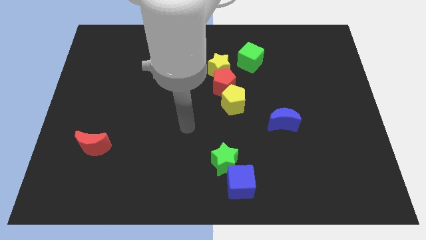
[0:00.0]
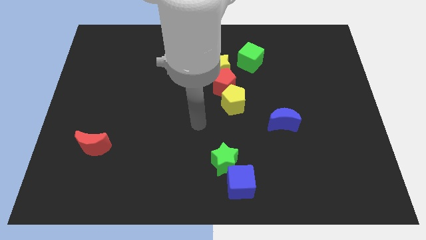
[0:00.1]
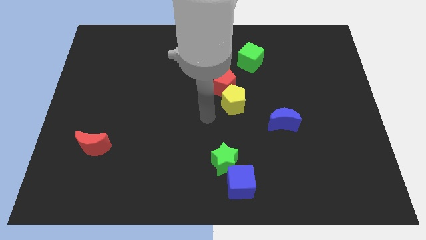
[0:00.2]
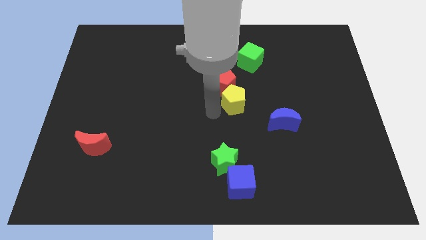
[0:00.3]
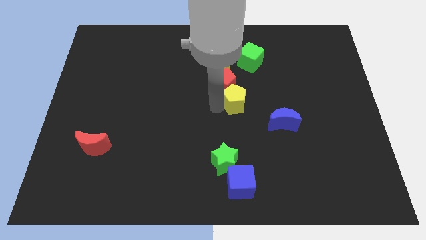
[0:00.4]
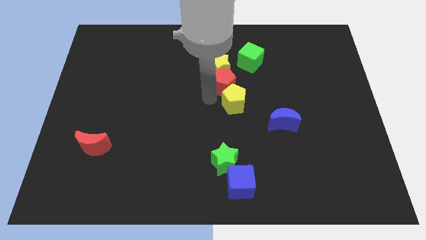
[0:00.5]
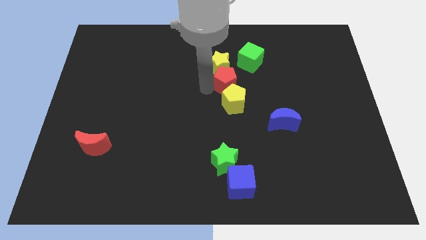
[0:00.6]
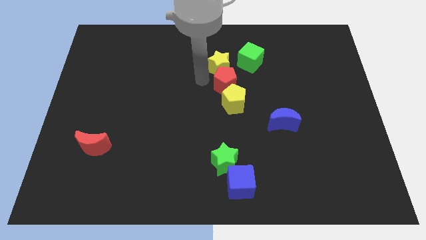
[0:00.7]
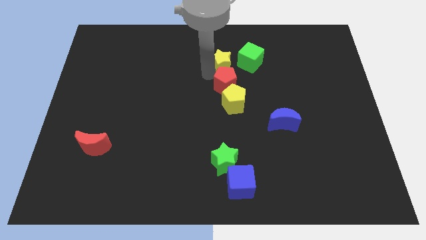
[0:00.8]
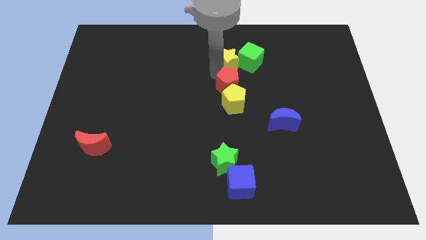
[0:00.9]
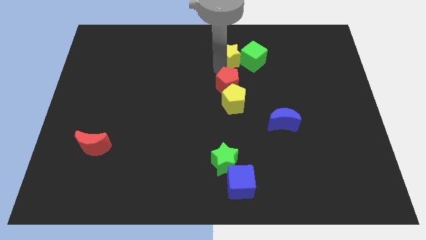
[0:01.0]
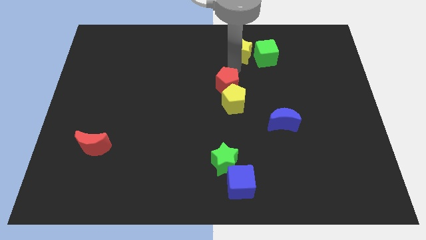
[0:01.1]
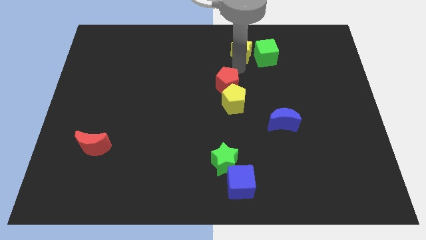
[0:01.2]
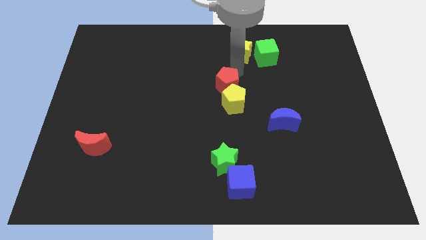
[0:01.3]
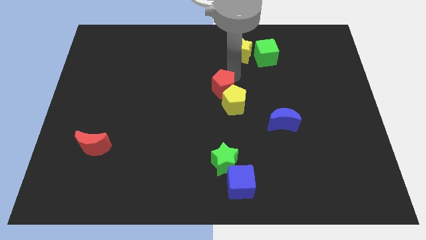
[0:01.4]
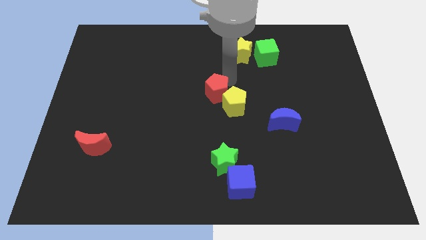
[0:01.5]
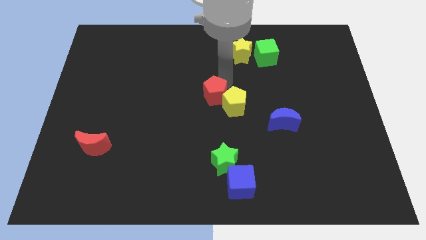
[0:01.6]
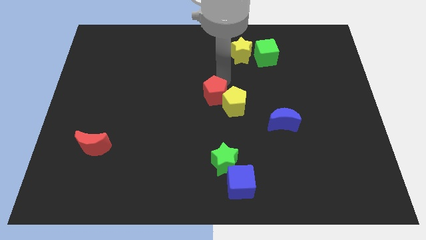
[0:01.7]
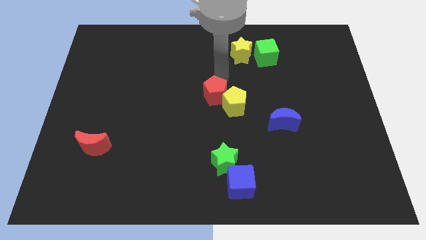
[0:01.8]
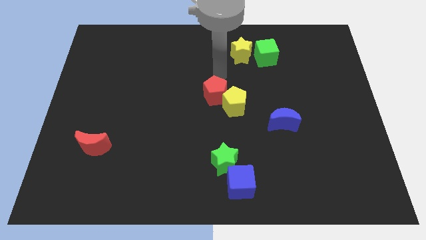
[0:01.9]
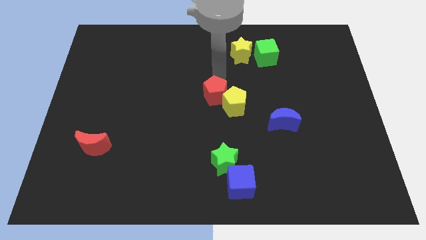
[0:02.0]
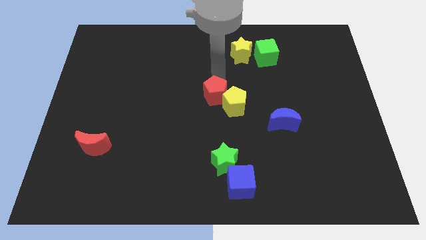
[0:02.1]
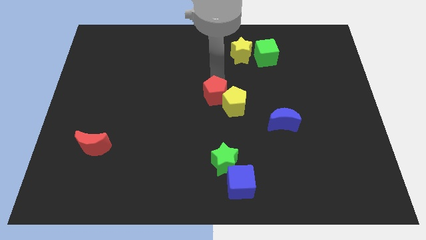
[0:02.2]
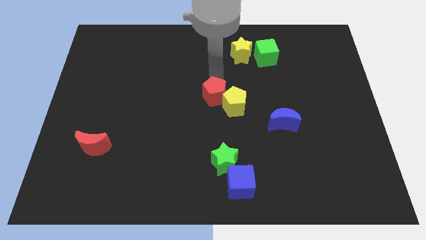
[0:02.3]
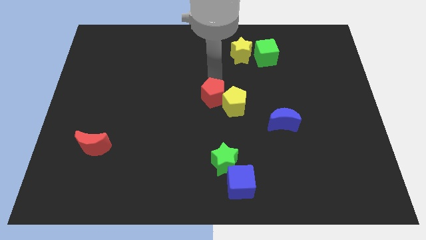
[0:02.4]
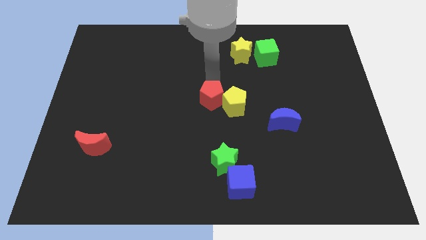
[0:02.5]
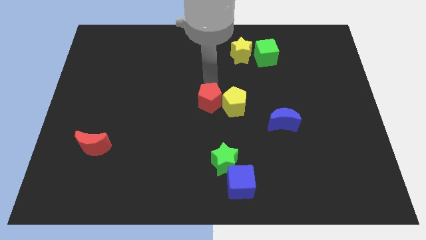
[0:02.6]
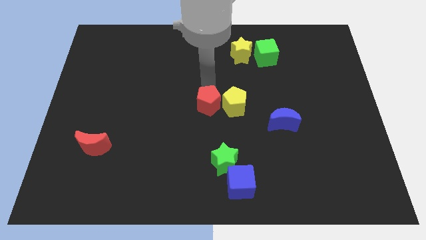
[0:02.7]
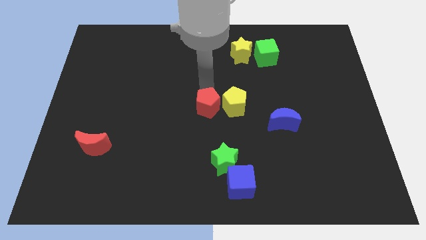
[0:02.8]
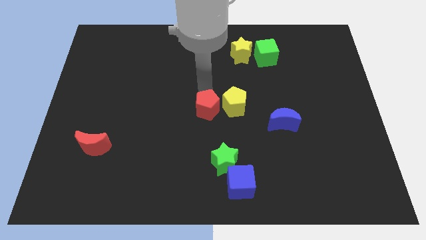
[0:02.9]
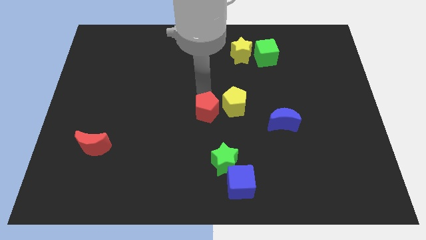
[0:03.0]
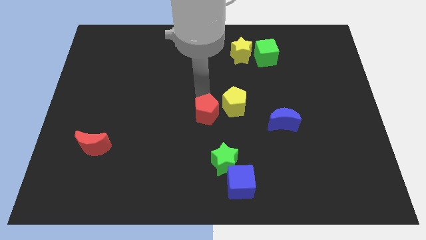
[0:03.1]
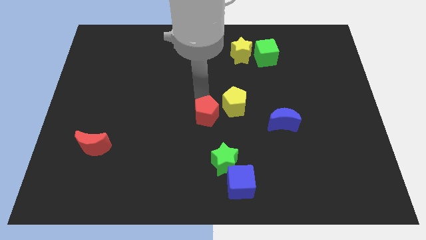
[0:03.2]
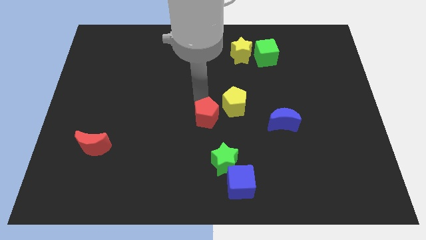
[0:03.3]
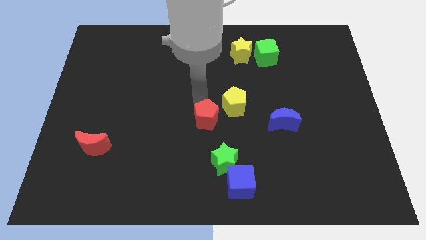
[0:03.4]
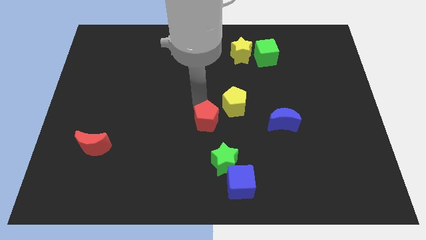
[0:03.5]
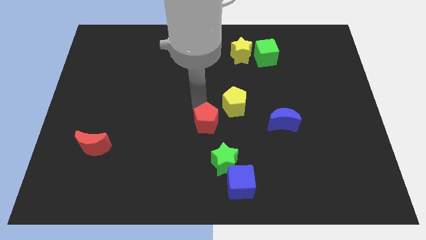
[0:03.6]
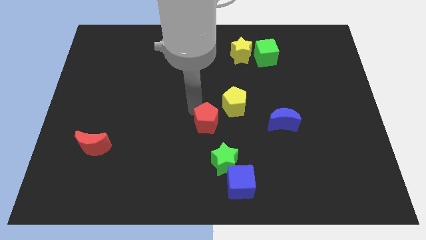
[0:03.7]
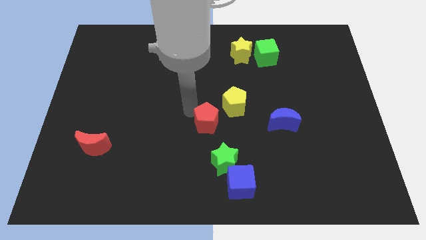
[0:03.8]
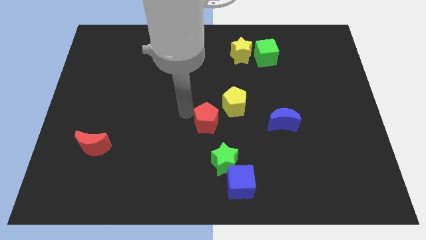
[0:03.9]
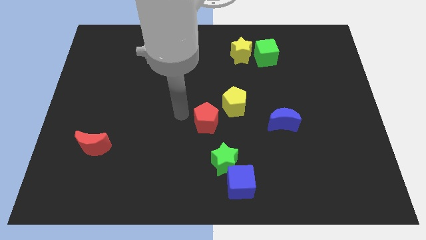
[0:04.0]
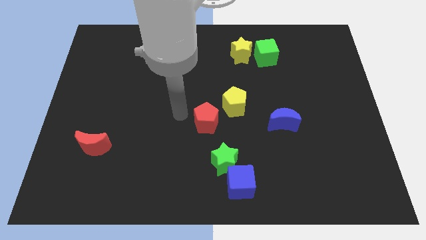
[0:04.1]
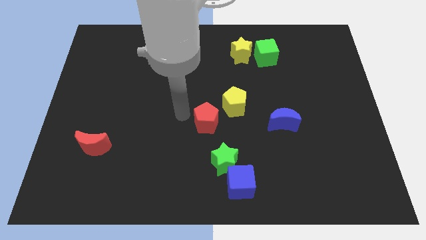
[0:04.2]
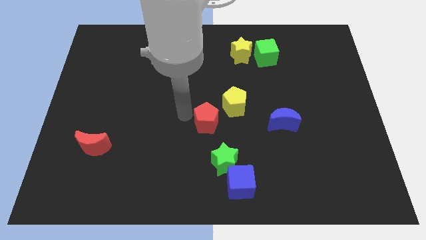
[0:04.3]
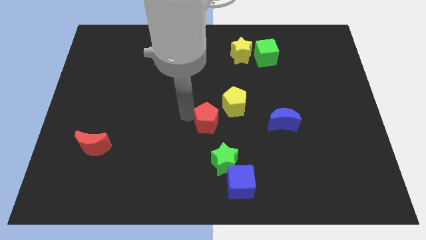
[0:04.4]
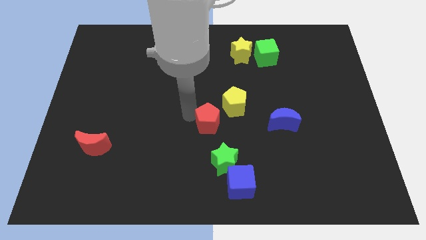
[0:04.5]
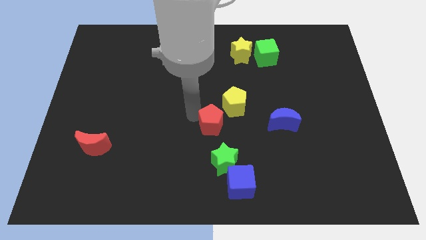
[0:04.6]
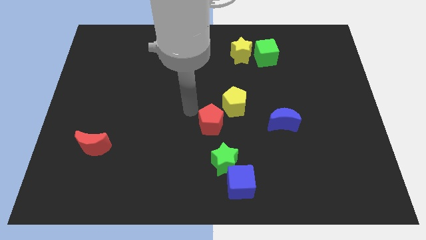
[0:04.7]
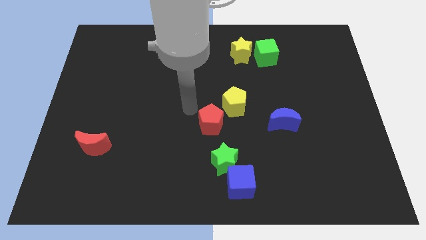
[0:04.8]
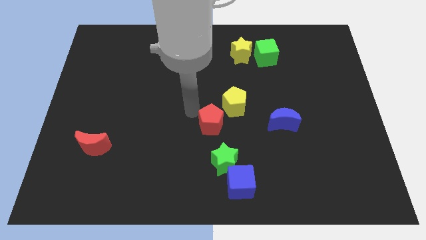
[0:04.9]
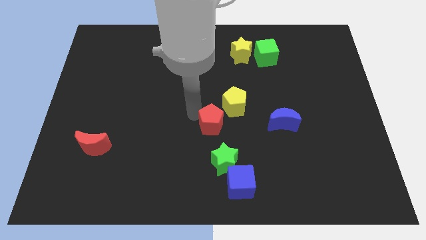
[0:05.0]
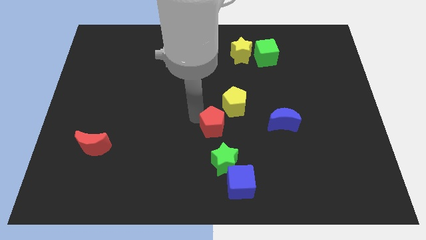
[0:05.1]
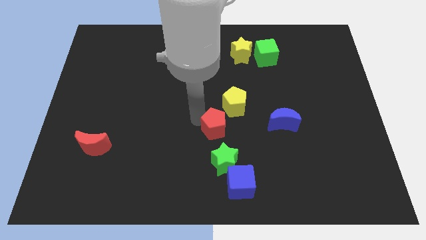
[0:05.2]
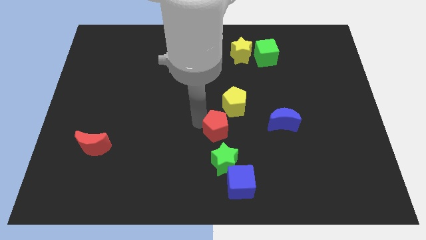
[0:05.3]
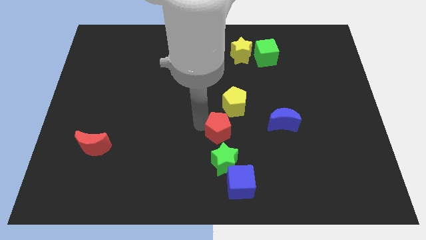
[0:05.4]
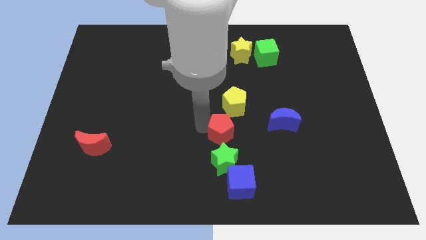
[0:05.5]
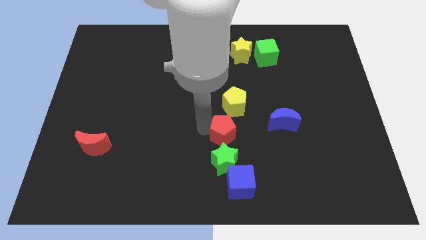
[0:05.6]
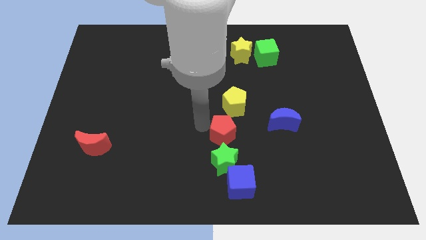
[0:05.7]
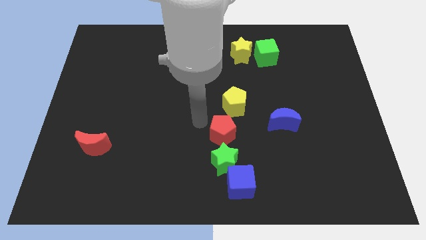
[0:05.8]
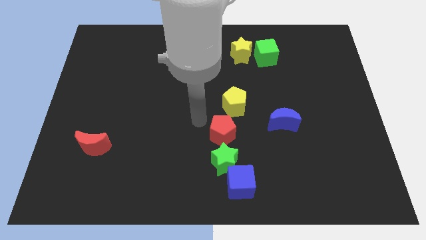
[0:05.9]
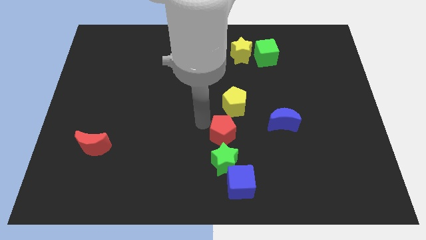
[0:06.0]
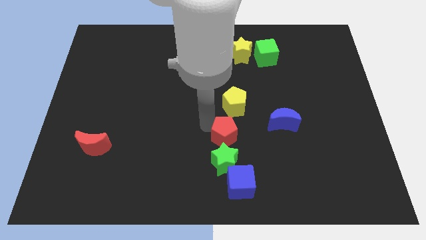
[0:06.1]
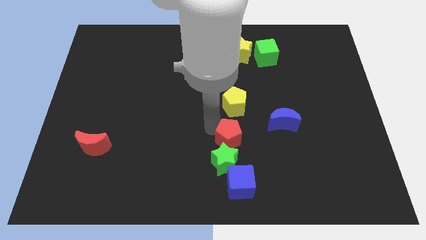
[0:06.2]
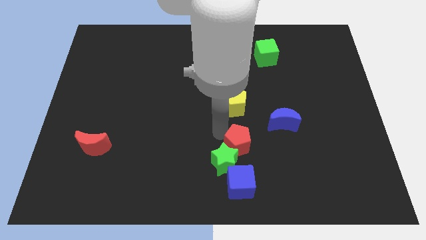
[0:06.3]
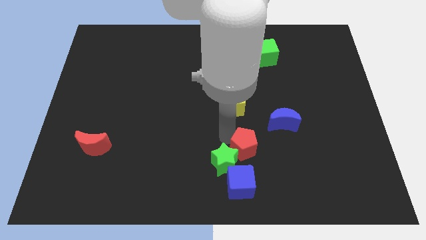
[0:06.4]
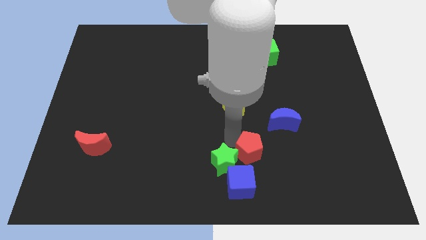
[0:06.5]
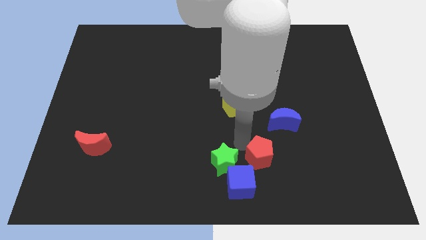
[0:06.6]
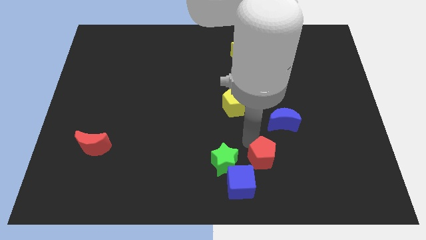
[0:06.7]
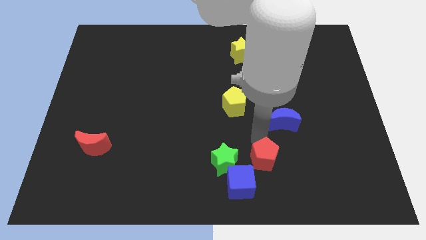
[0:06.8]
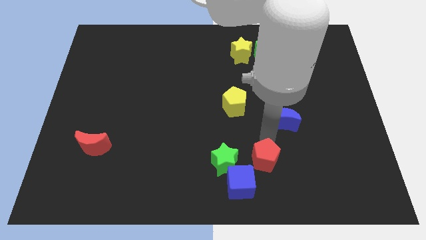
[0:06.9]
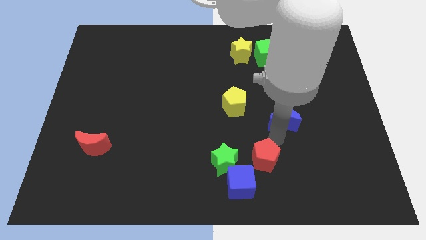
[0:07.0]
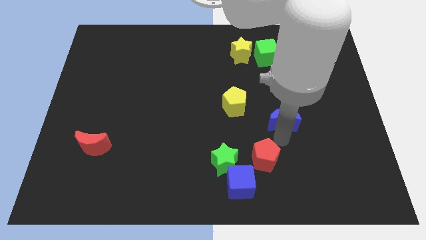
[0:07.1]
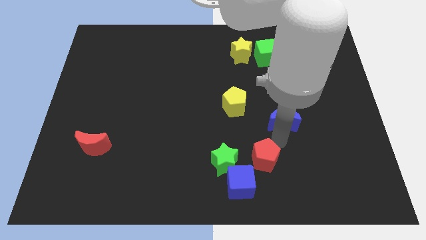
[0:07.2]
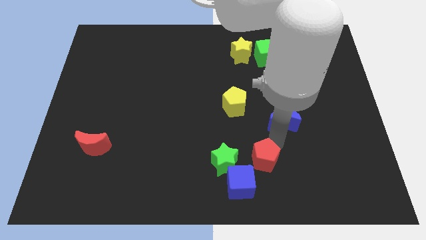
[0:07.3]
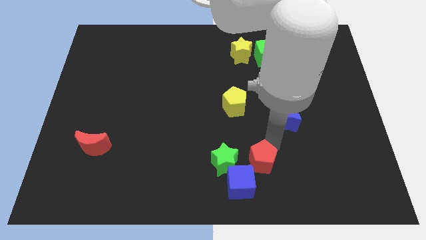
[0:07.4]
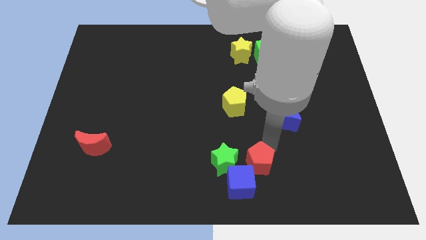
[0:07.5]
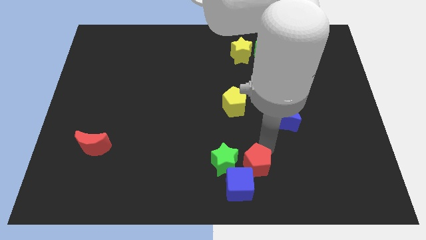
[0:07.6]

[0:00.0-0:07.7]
push the red pentagon next to the blue cube
